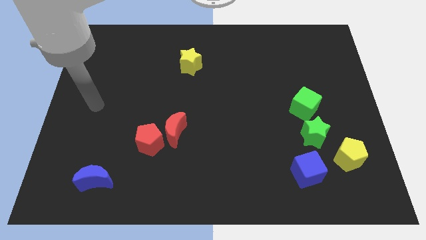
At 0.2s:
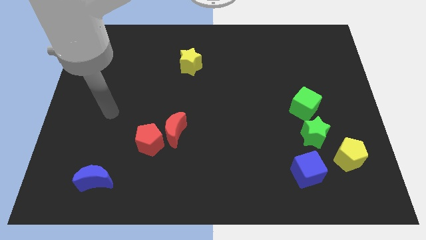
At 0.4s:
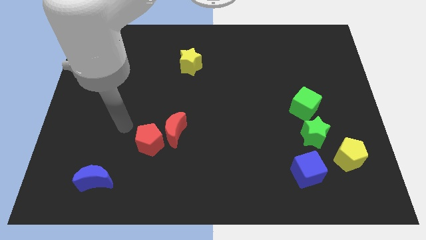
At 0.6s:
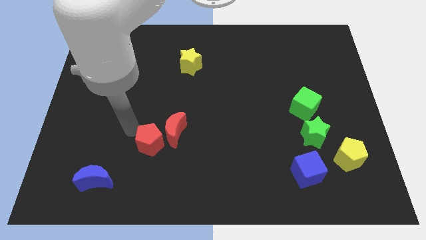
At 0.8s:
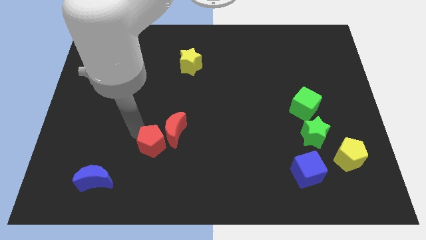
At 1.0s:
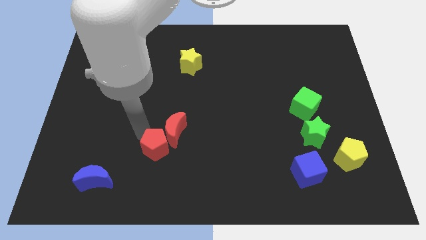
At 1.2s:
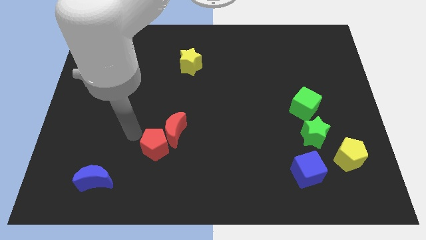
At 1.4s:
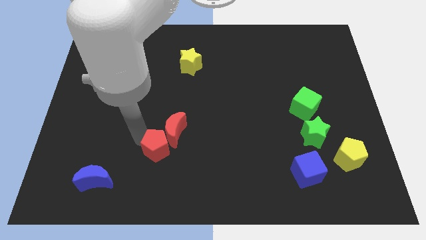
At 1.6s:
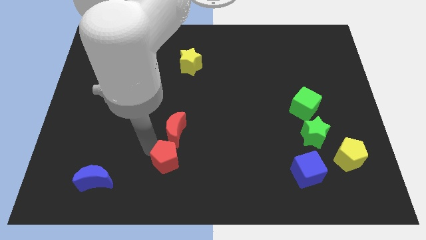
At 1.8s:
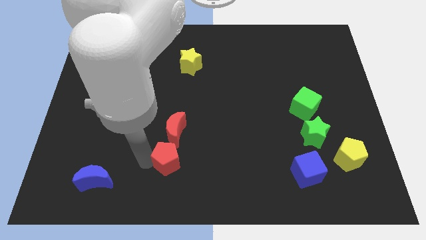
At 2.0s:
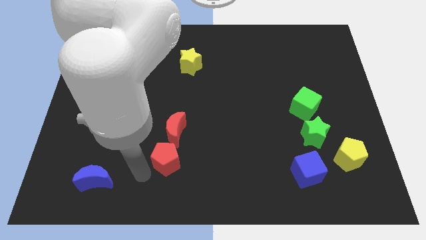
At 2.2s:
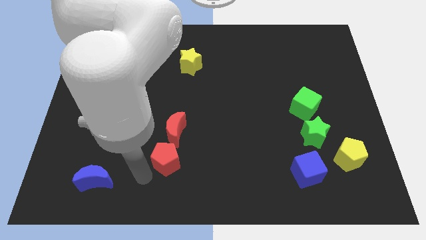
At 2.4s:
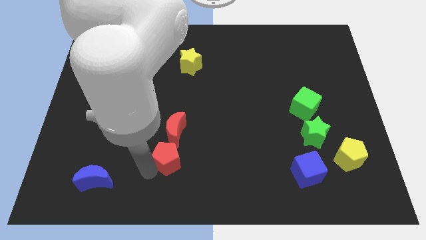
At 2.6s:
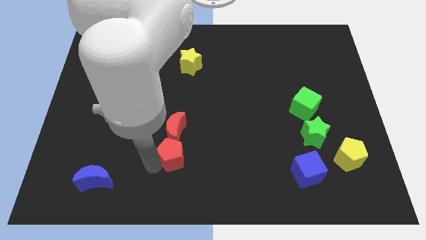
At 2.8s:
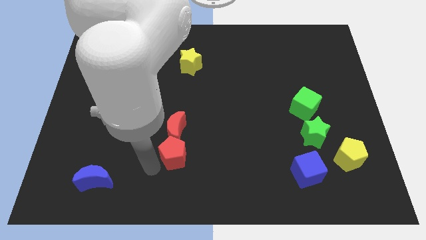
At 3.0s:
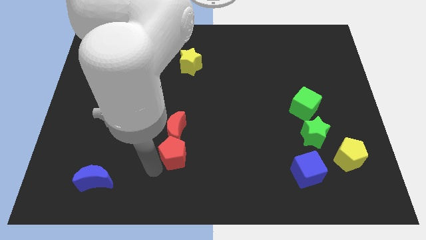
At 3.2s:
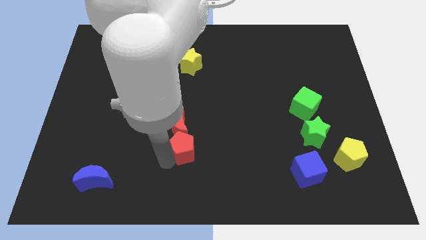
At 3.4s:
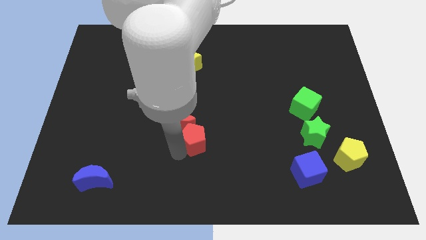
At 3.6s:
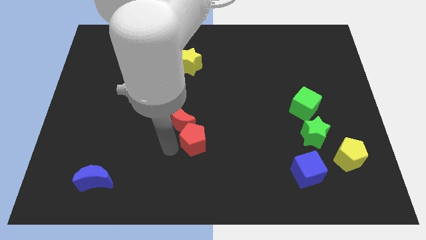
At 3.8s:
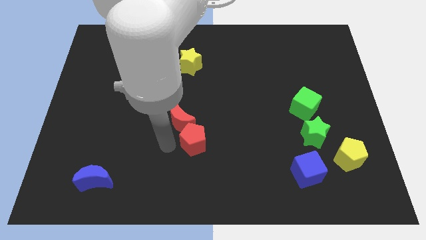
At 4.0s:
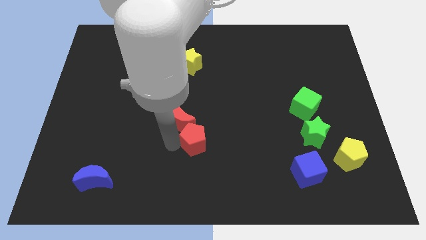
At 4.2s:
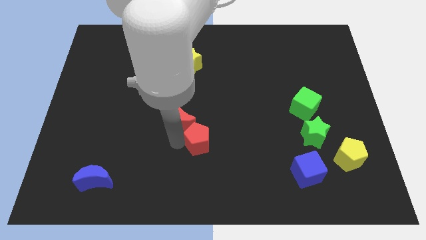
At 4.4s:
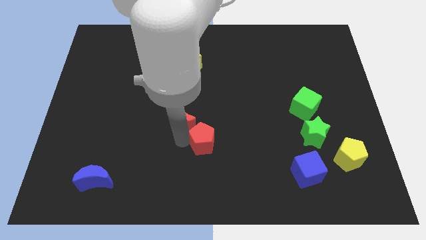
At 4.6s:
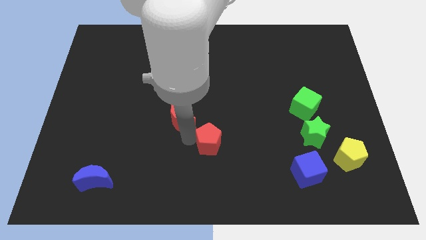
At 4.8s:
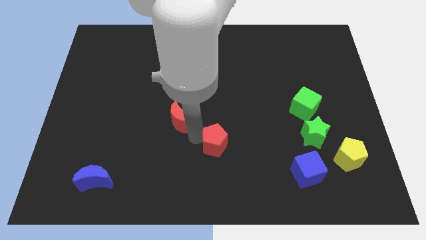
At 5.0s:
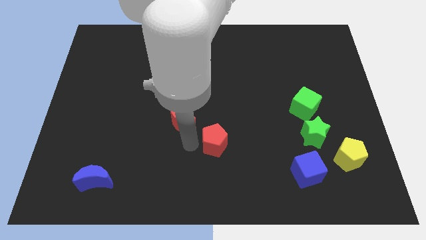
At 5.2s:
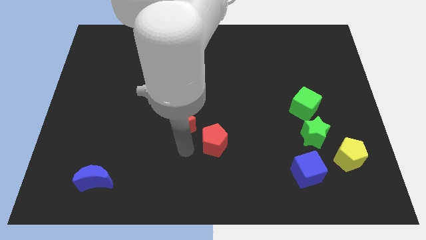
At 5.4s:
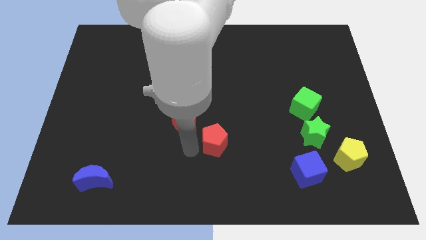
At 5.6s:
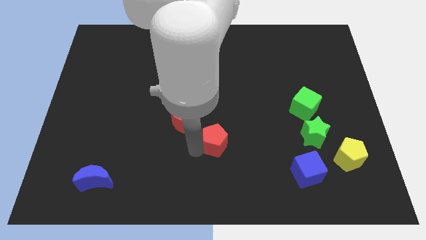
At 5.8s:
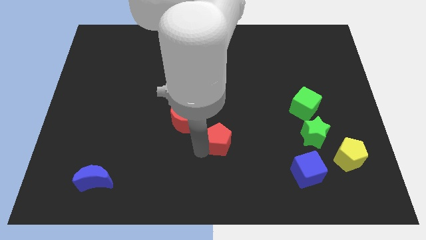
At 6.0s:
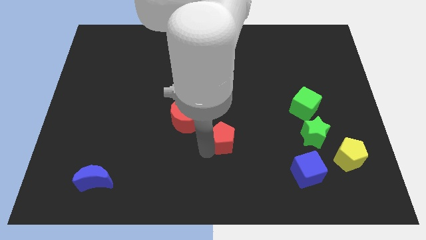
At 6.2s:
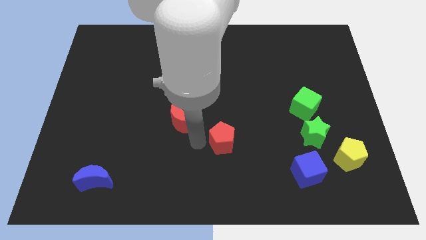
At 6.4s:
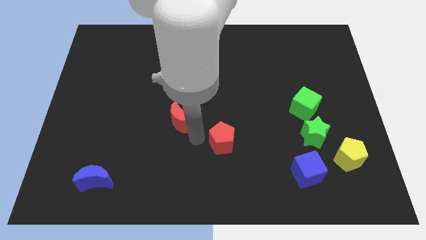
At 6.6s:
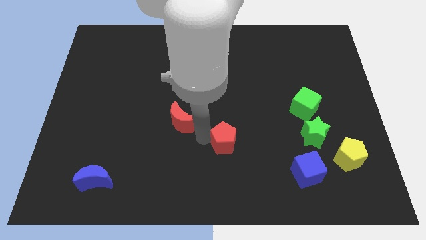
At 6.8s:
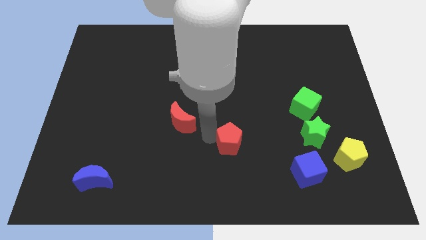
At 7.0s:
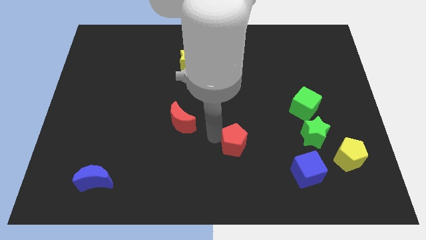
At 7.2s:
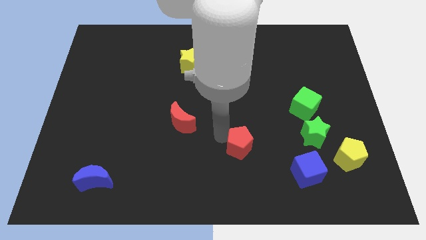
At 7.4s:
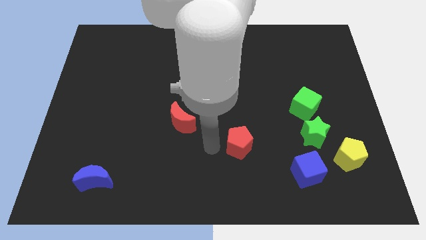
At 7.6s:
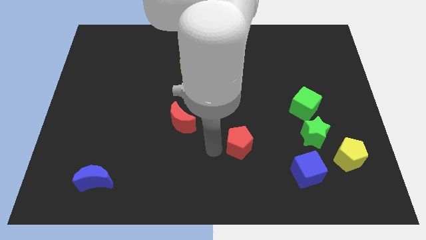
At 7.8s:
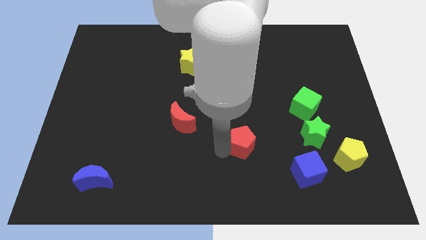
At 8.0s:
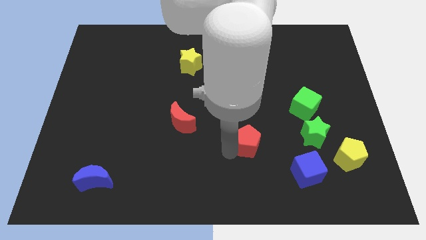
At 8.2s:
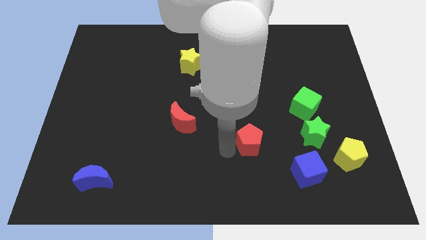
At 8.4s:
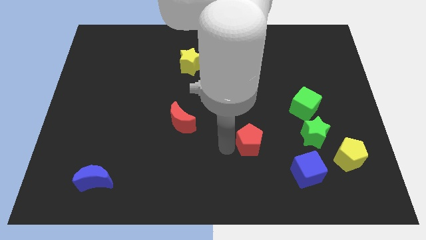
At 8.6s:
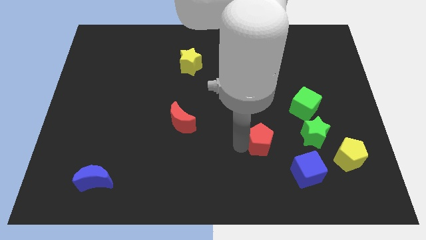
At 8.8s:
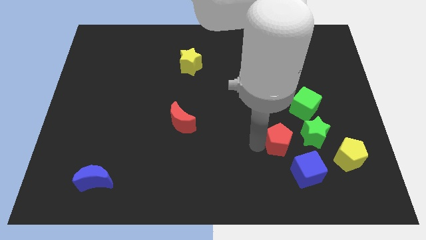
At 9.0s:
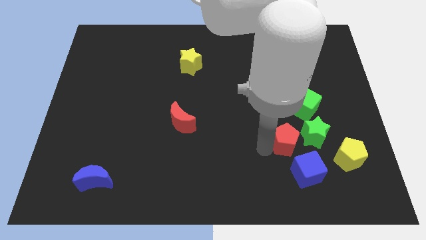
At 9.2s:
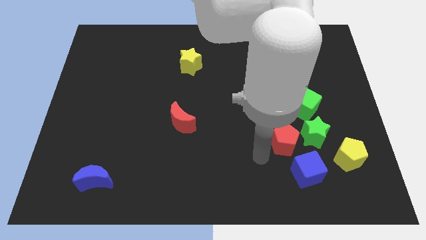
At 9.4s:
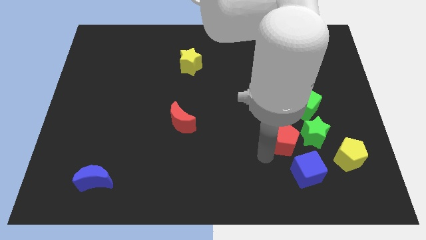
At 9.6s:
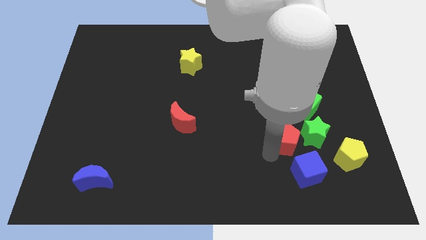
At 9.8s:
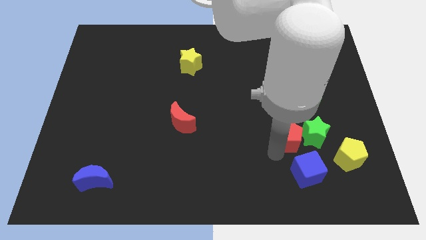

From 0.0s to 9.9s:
slide the red pentagon to the green star

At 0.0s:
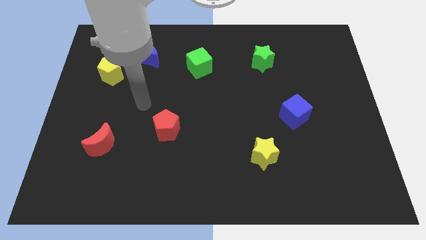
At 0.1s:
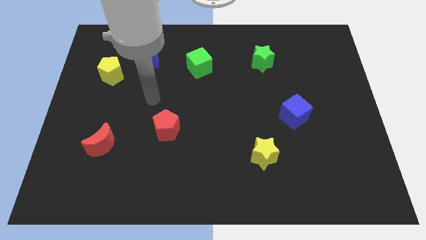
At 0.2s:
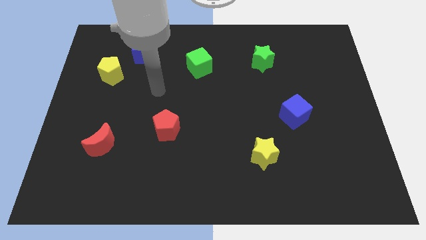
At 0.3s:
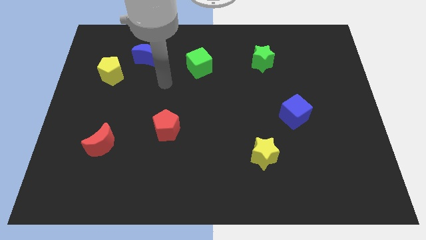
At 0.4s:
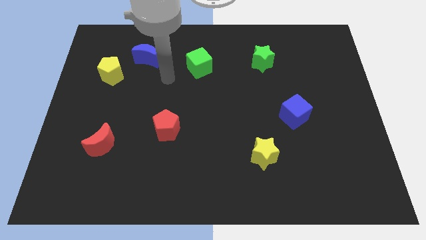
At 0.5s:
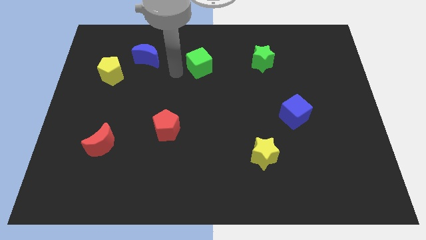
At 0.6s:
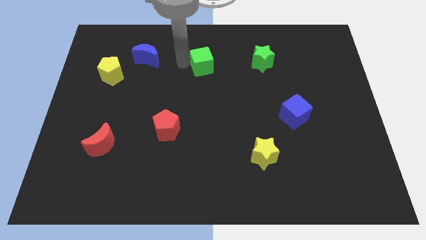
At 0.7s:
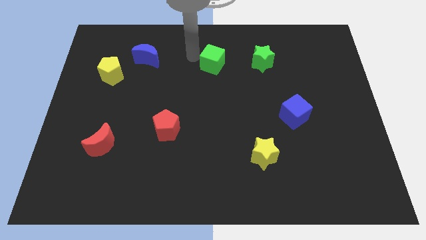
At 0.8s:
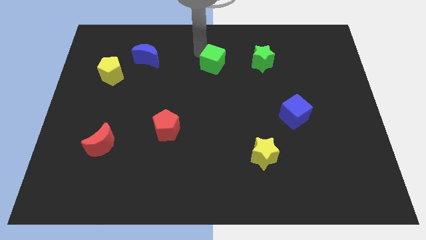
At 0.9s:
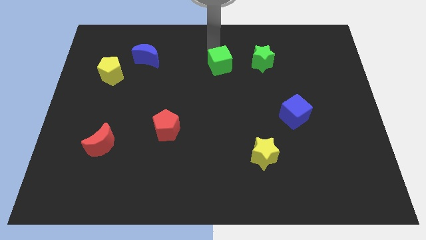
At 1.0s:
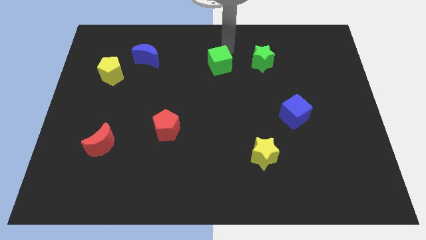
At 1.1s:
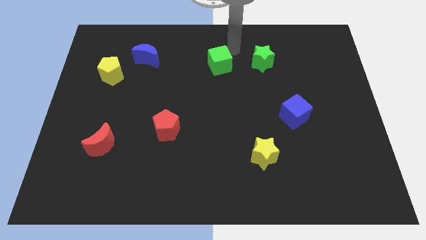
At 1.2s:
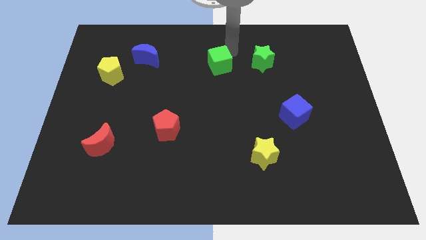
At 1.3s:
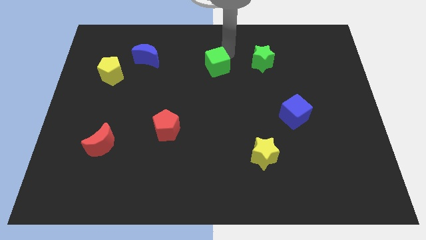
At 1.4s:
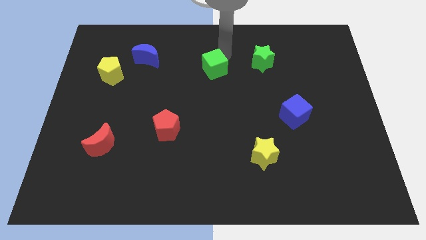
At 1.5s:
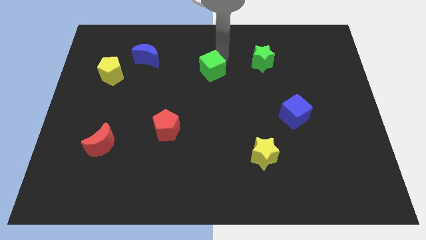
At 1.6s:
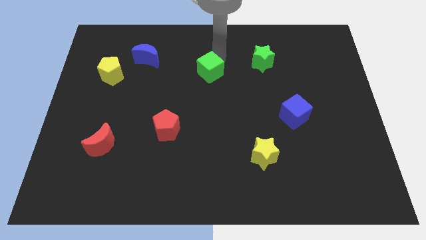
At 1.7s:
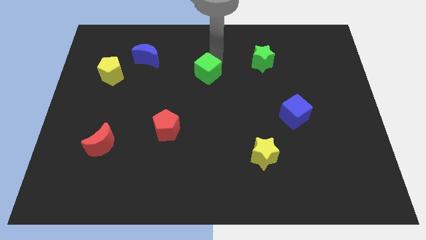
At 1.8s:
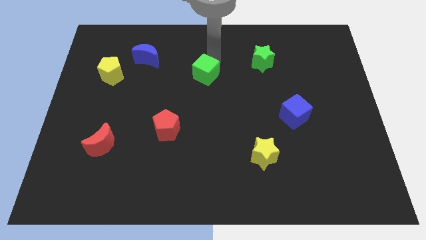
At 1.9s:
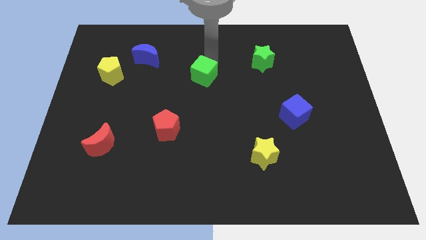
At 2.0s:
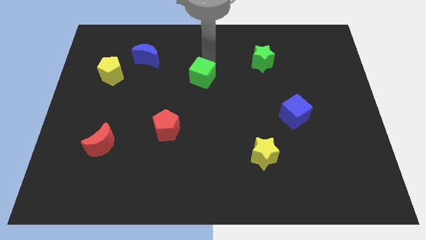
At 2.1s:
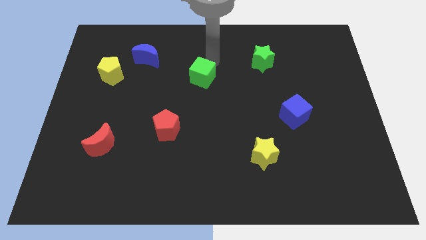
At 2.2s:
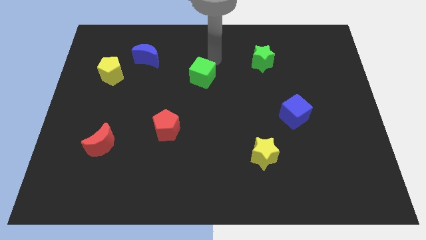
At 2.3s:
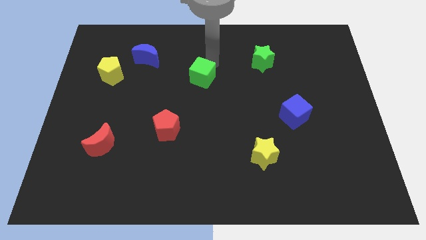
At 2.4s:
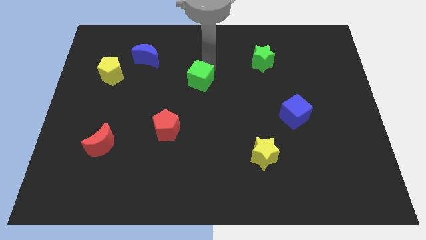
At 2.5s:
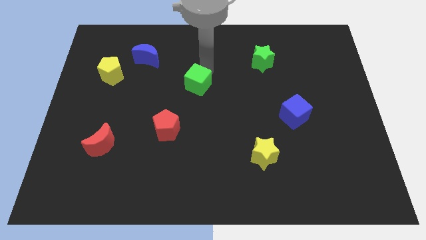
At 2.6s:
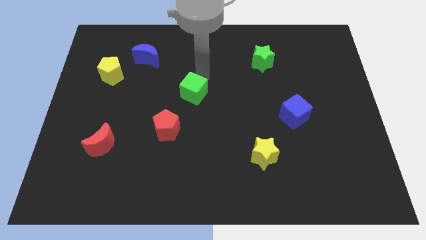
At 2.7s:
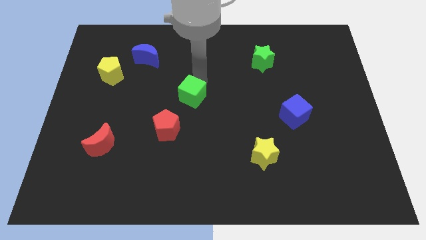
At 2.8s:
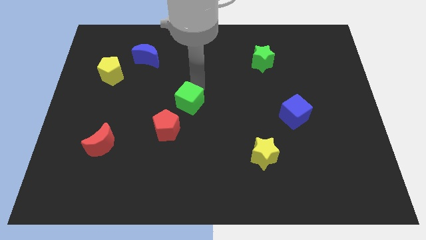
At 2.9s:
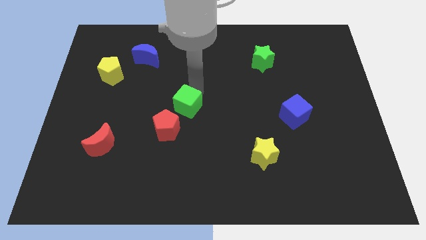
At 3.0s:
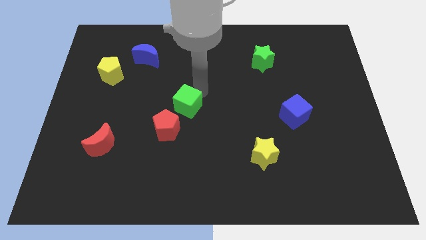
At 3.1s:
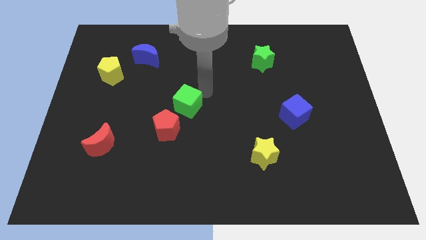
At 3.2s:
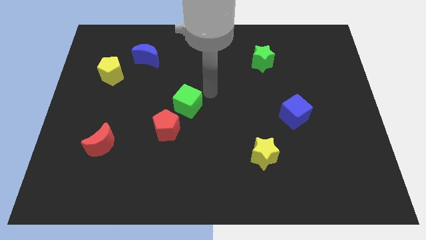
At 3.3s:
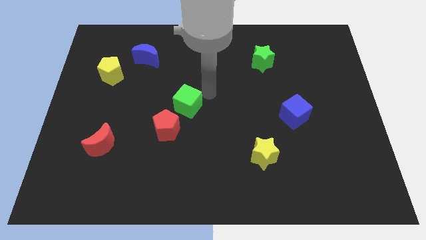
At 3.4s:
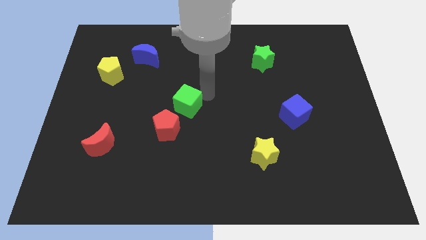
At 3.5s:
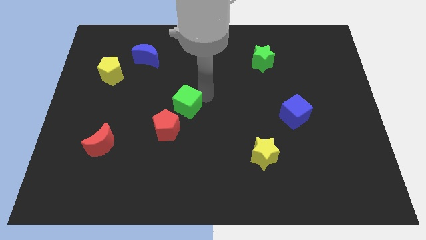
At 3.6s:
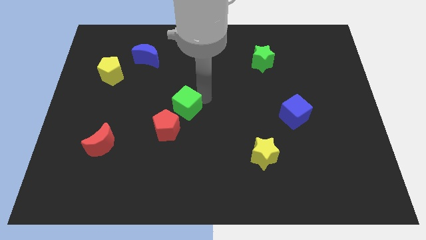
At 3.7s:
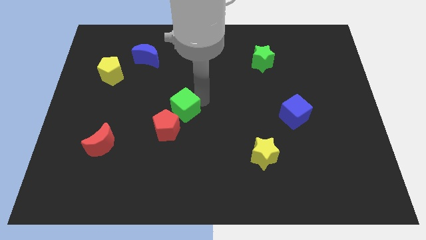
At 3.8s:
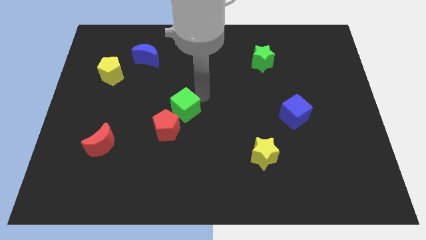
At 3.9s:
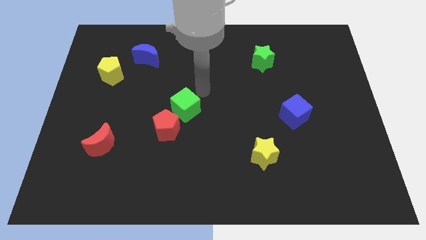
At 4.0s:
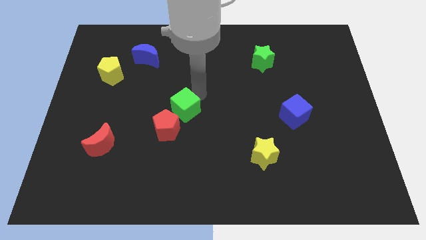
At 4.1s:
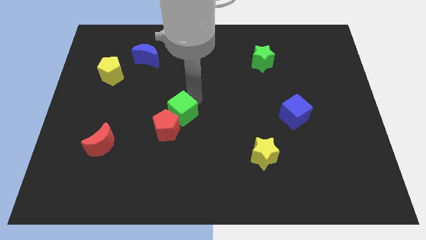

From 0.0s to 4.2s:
move the green cube next to the red pentagon
